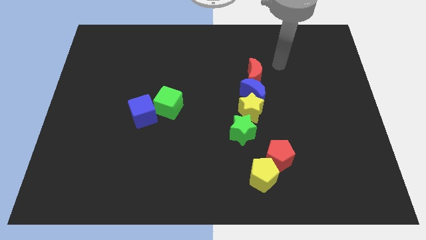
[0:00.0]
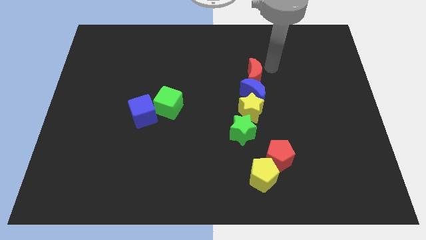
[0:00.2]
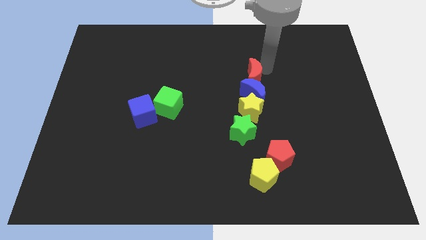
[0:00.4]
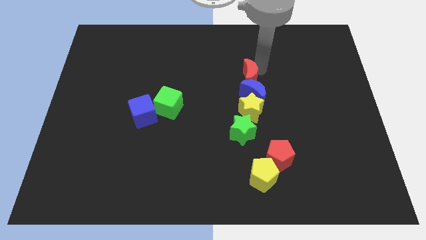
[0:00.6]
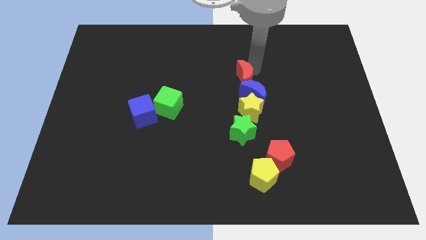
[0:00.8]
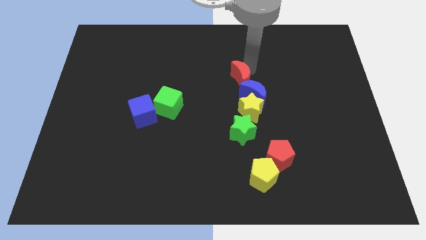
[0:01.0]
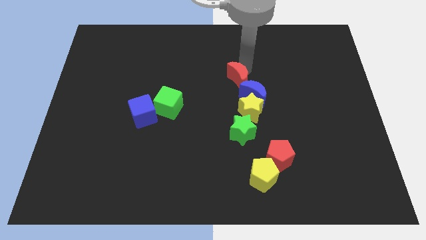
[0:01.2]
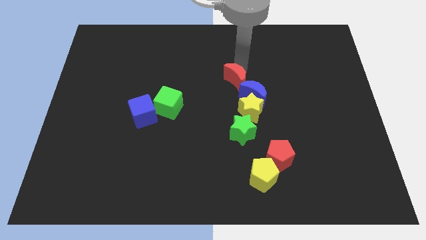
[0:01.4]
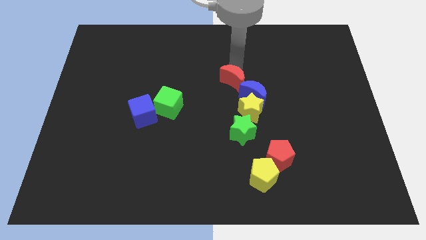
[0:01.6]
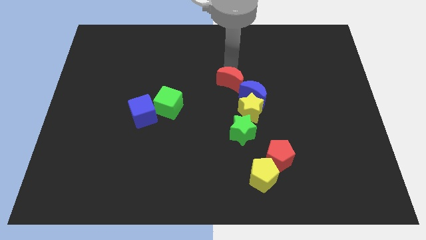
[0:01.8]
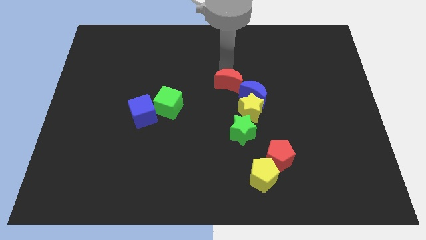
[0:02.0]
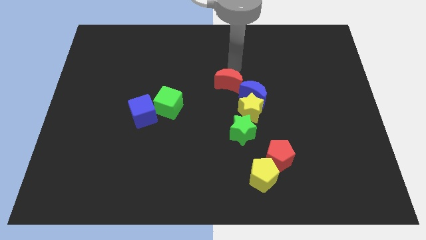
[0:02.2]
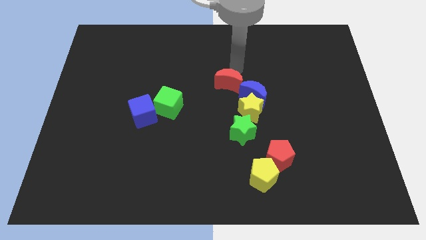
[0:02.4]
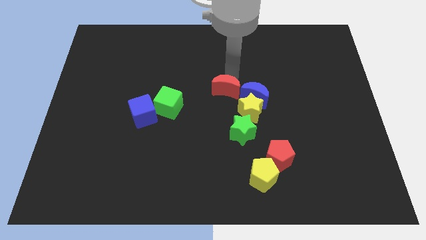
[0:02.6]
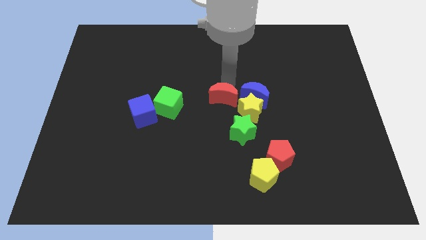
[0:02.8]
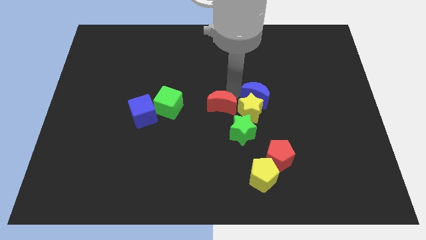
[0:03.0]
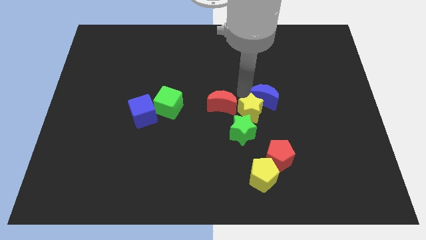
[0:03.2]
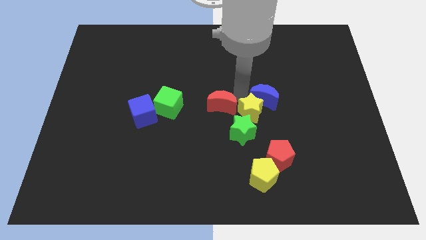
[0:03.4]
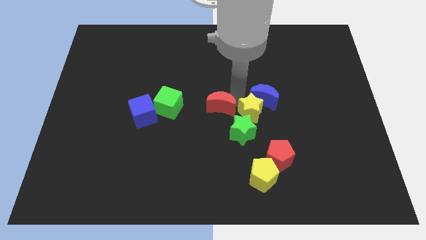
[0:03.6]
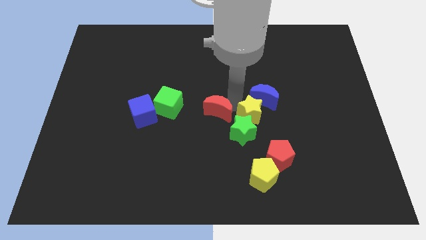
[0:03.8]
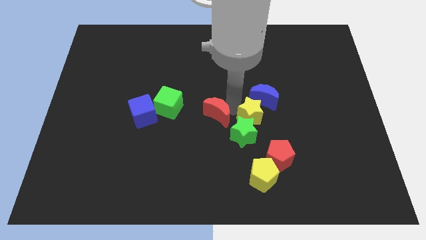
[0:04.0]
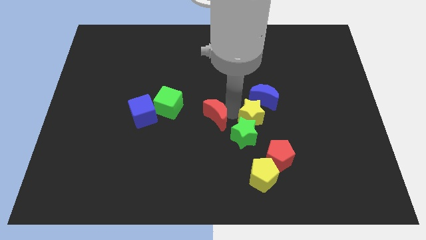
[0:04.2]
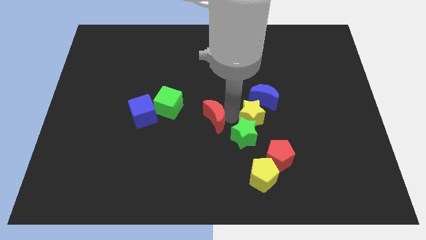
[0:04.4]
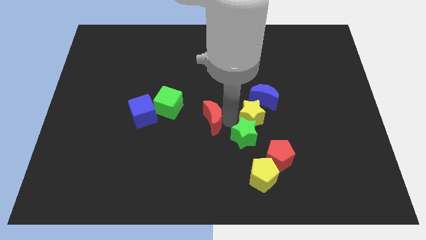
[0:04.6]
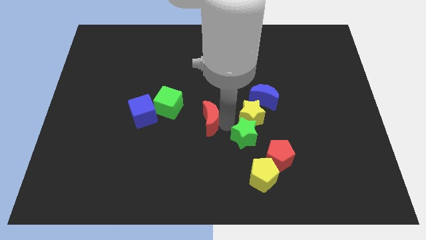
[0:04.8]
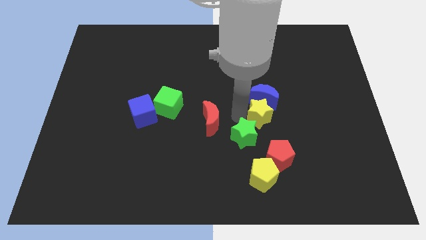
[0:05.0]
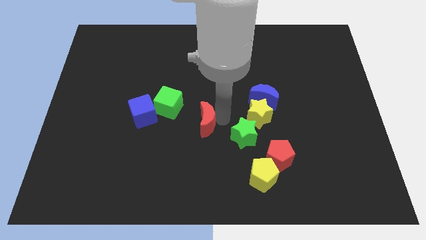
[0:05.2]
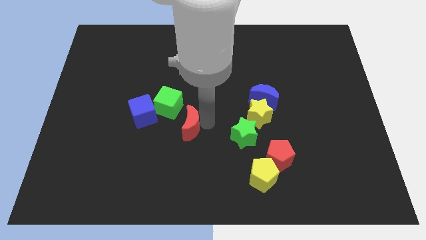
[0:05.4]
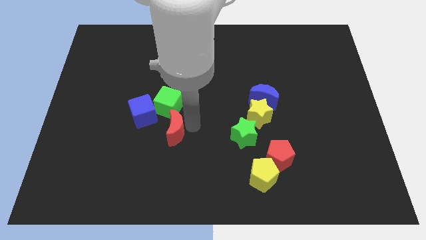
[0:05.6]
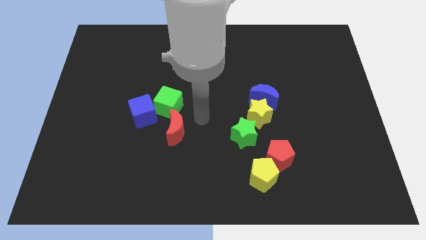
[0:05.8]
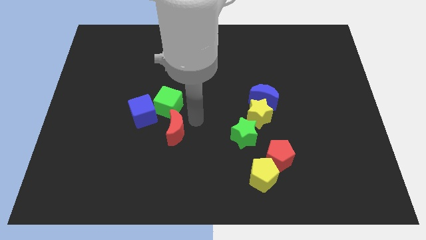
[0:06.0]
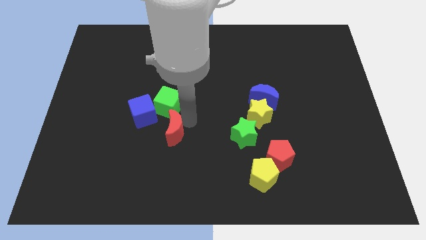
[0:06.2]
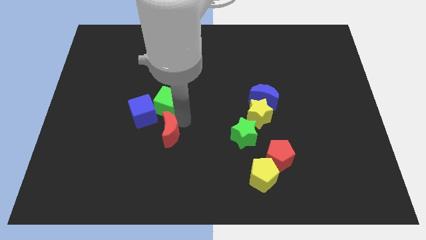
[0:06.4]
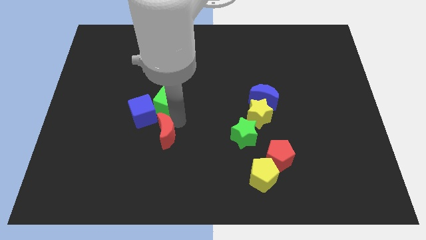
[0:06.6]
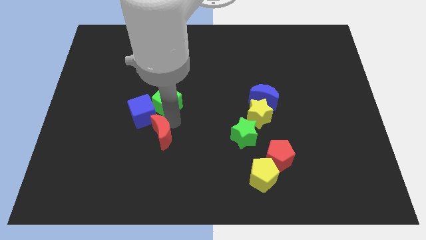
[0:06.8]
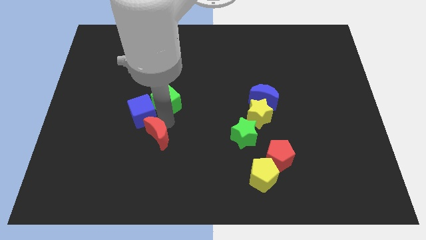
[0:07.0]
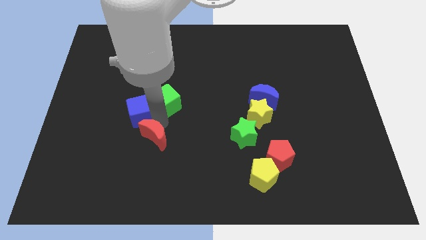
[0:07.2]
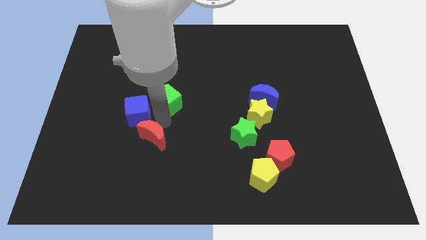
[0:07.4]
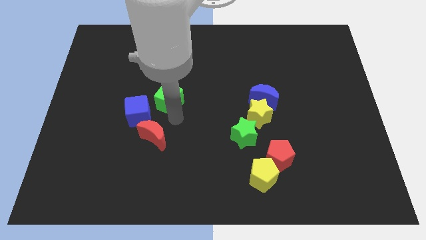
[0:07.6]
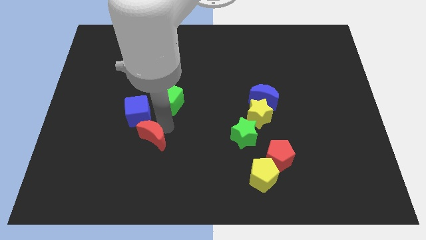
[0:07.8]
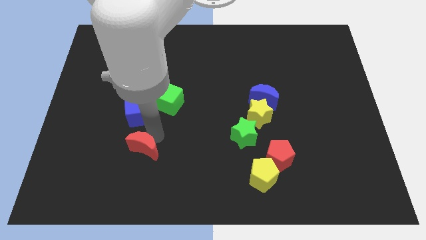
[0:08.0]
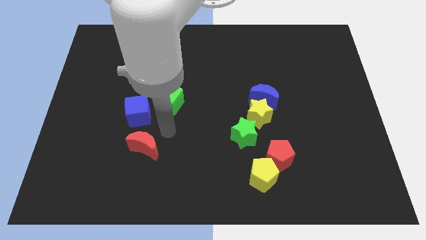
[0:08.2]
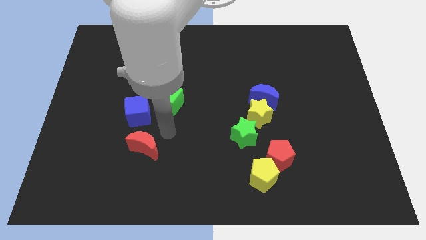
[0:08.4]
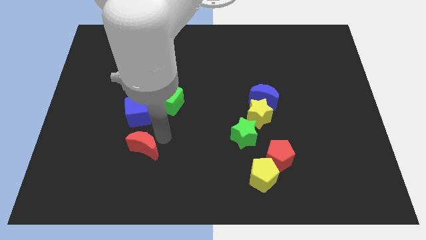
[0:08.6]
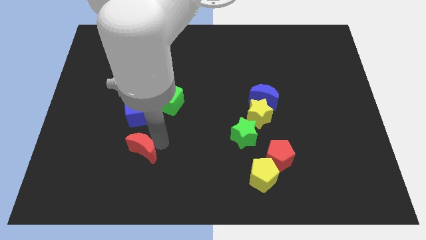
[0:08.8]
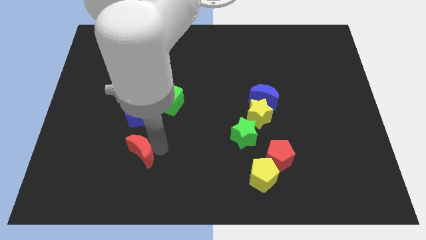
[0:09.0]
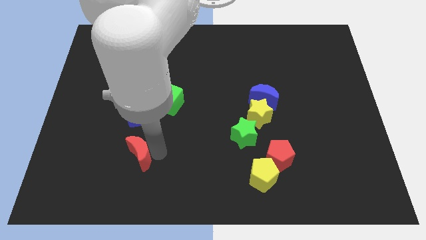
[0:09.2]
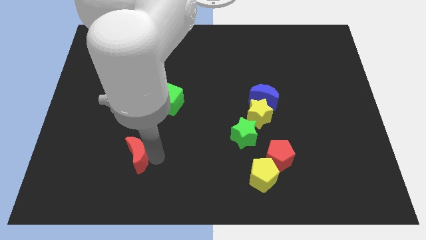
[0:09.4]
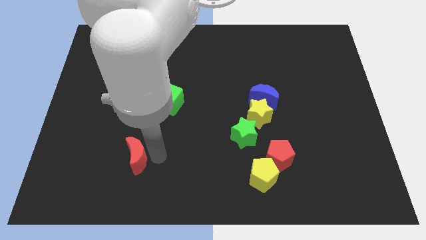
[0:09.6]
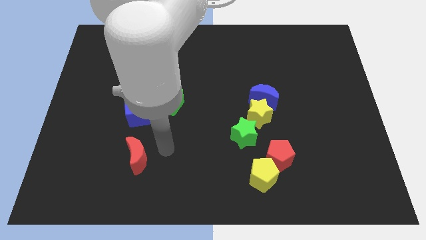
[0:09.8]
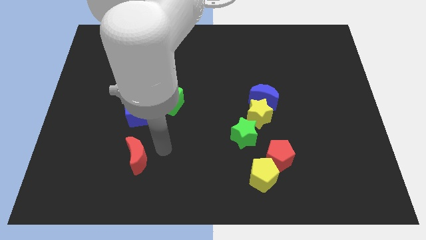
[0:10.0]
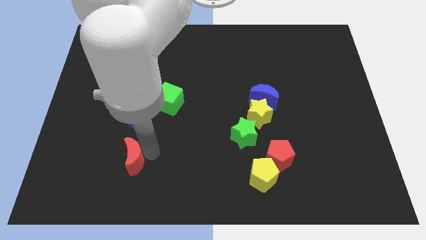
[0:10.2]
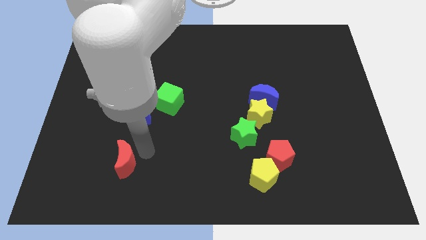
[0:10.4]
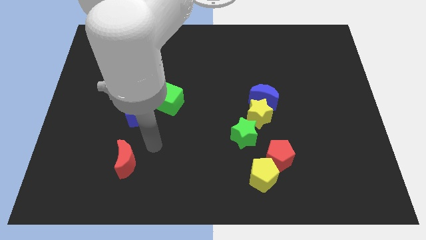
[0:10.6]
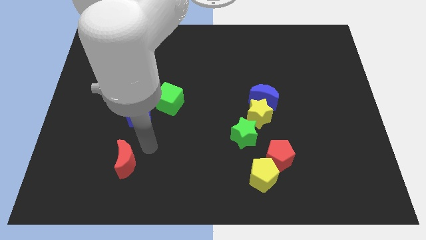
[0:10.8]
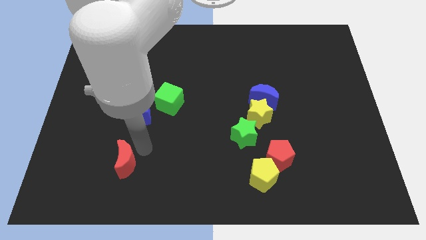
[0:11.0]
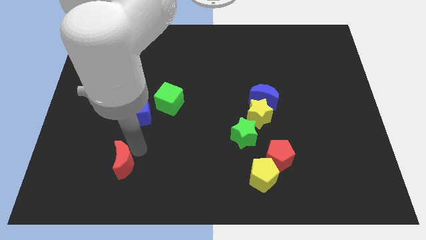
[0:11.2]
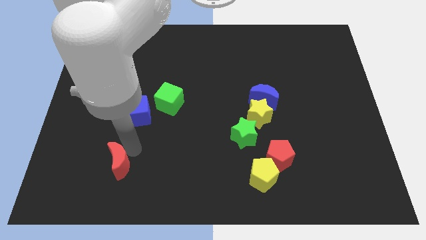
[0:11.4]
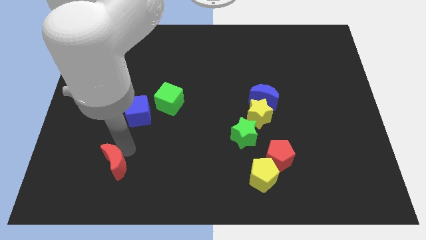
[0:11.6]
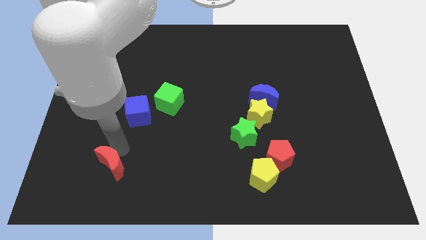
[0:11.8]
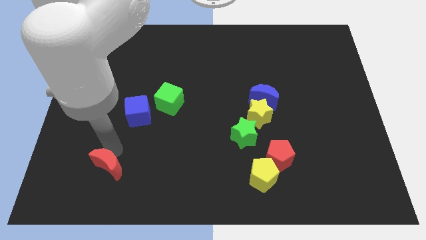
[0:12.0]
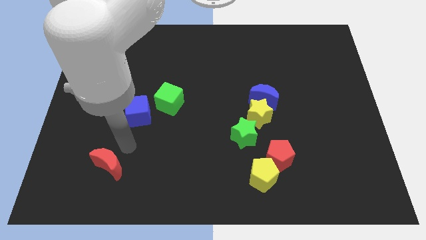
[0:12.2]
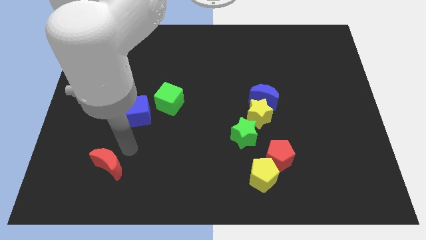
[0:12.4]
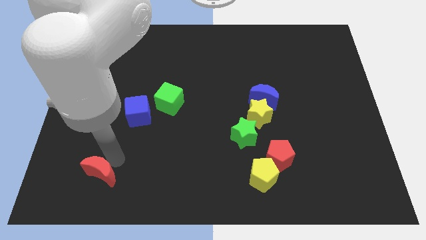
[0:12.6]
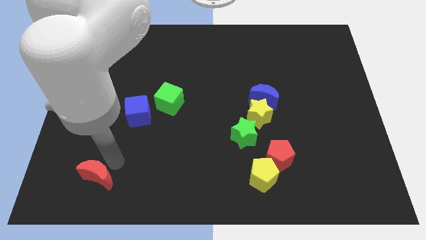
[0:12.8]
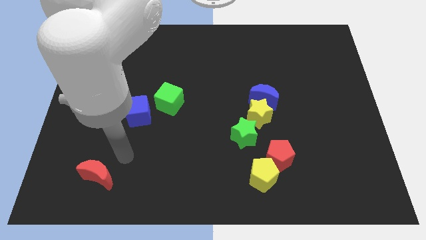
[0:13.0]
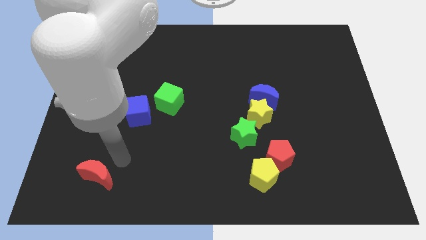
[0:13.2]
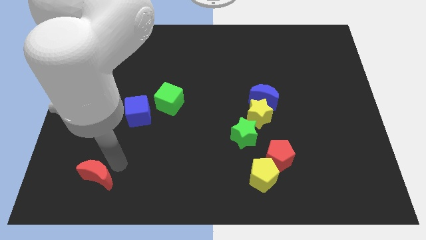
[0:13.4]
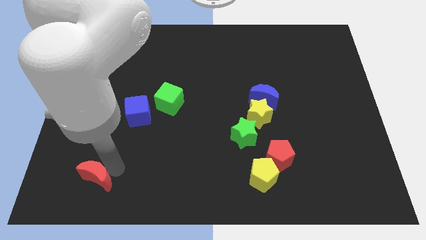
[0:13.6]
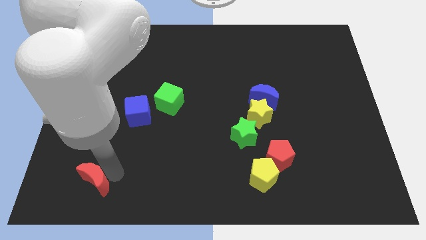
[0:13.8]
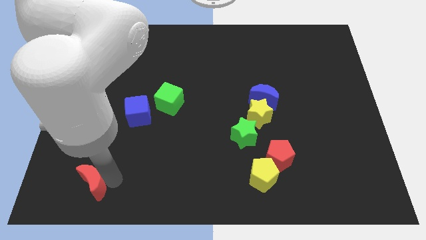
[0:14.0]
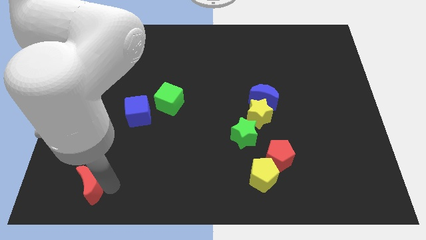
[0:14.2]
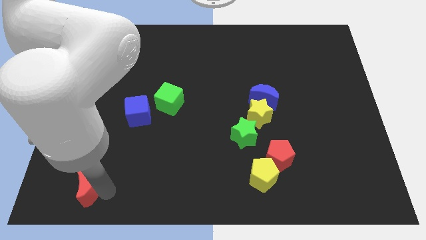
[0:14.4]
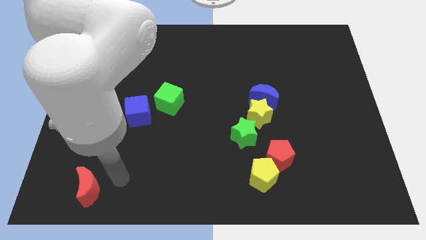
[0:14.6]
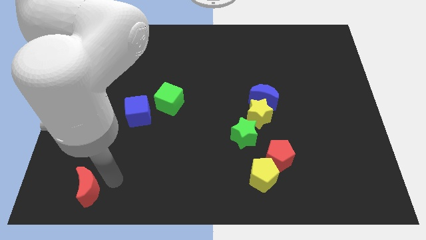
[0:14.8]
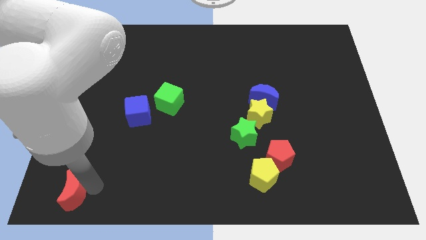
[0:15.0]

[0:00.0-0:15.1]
put the red moon to the bottom left
